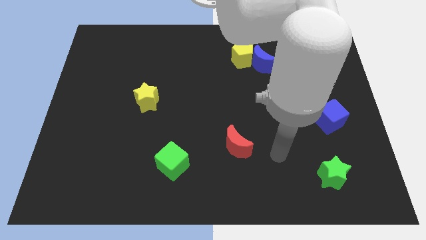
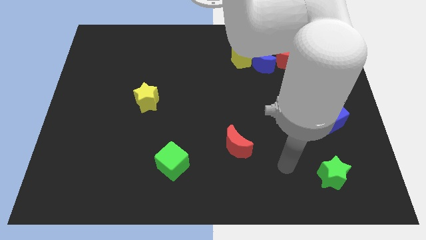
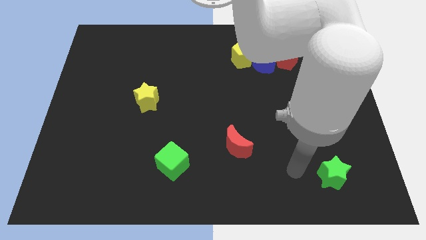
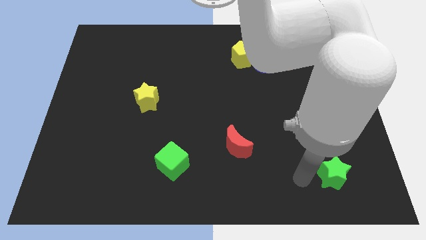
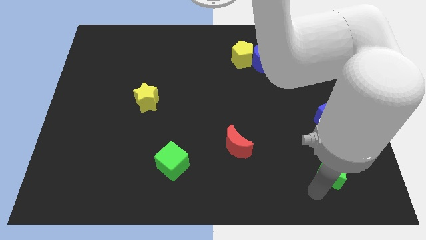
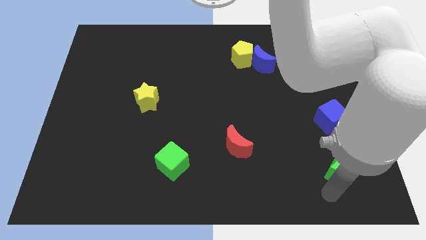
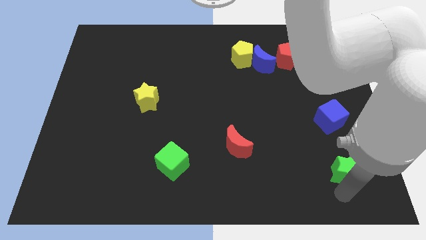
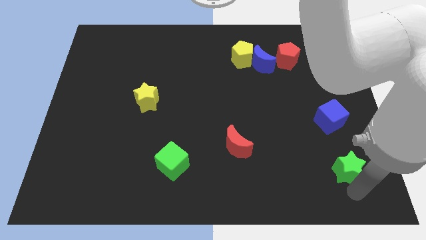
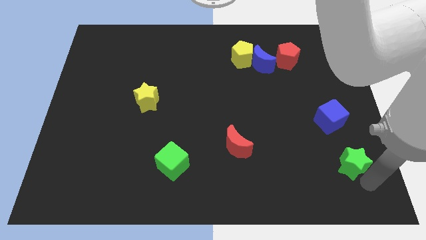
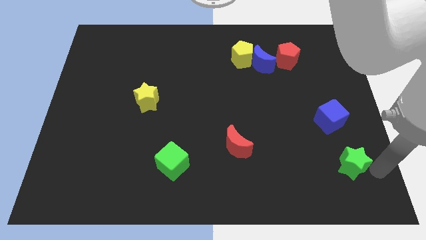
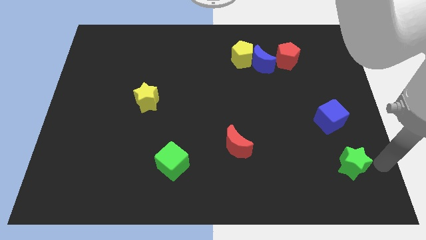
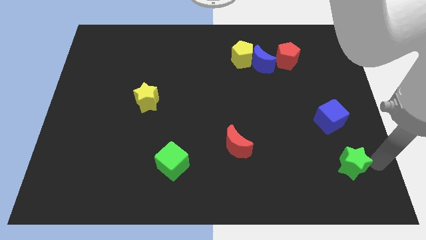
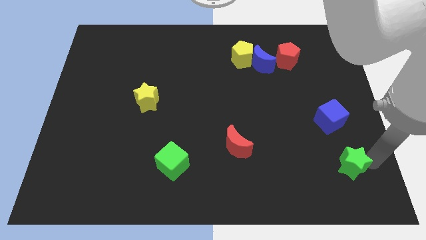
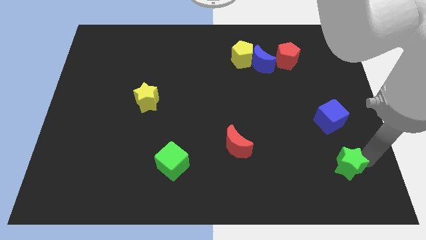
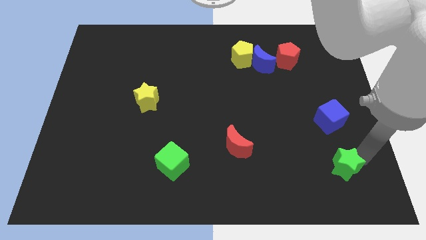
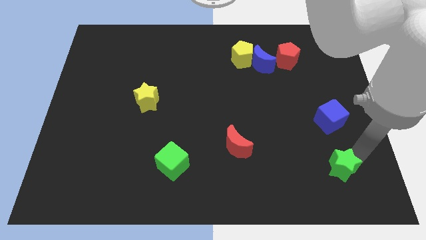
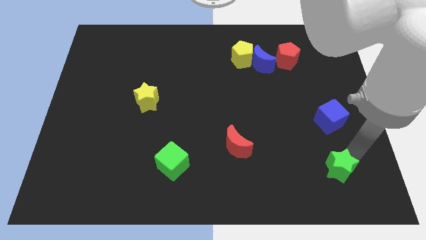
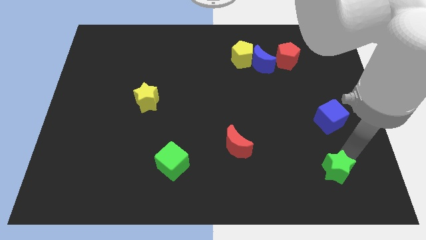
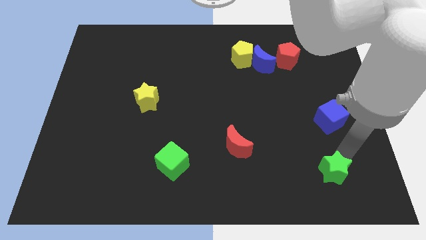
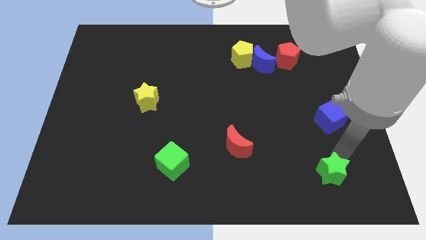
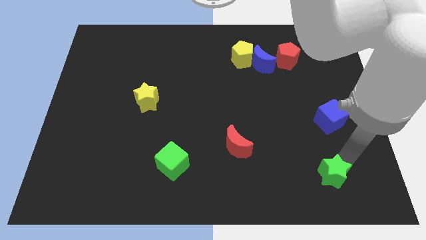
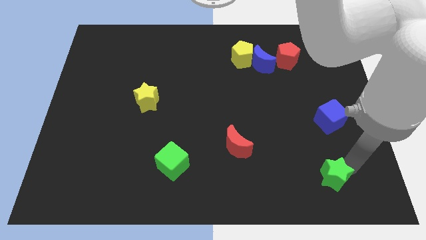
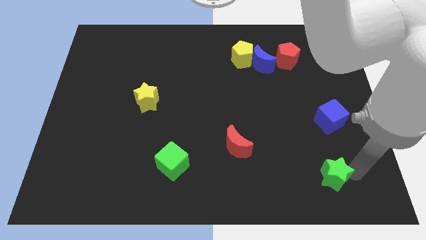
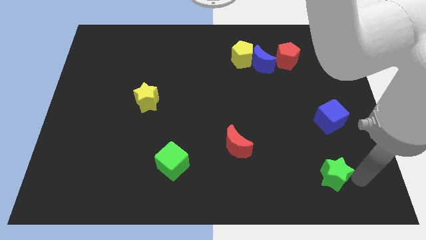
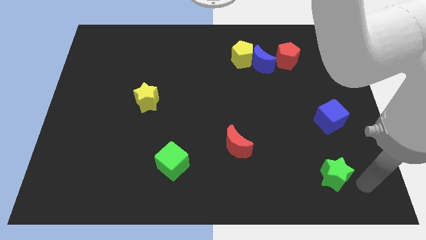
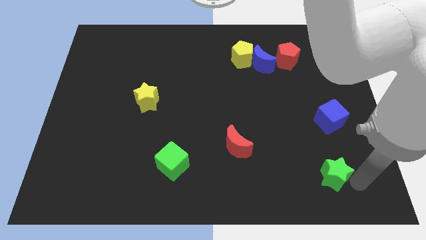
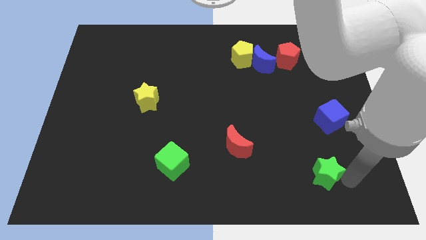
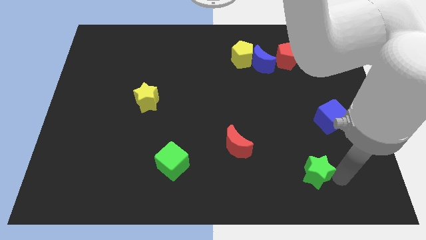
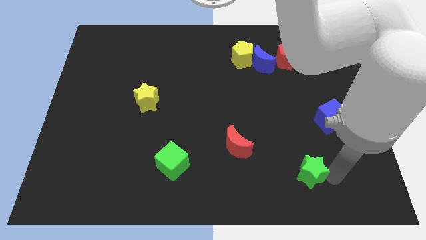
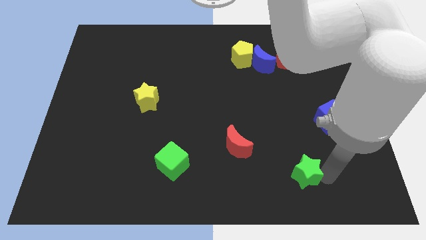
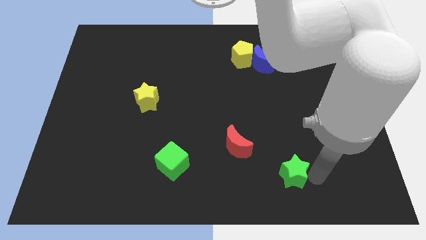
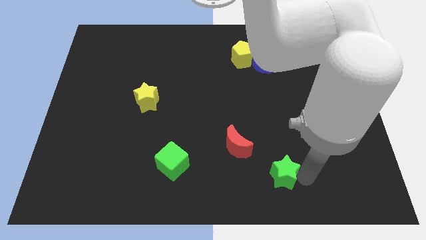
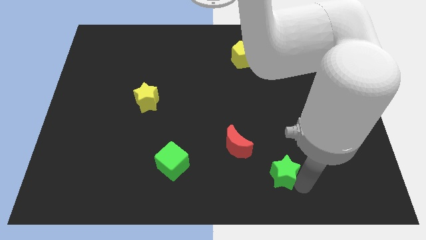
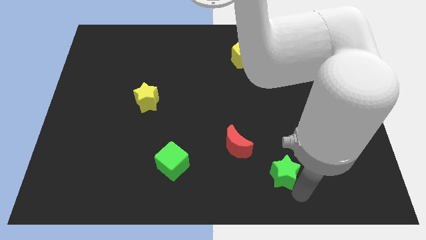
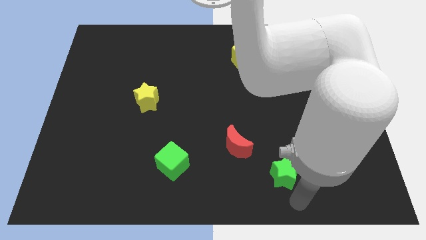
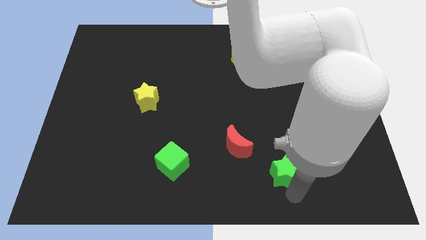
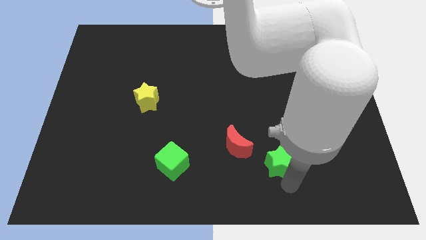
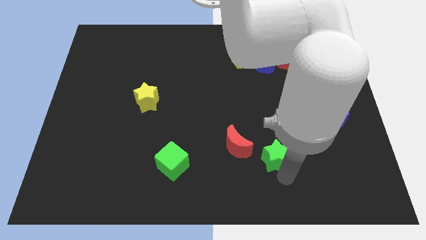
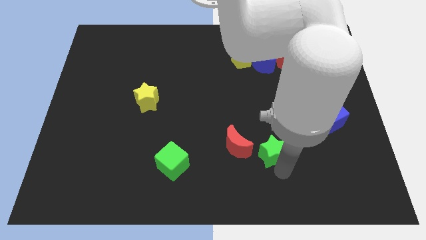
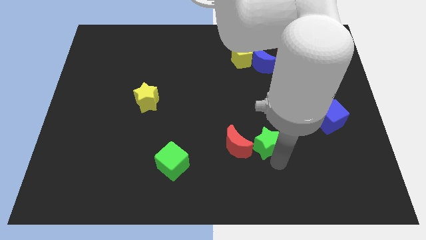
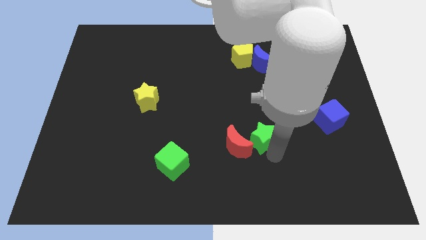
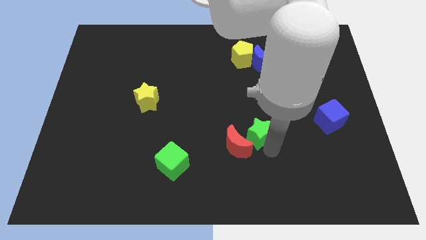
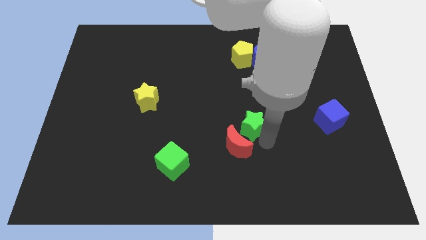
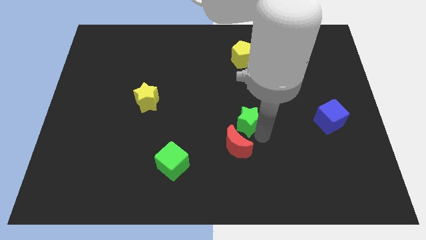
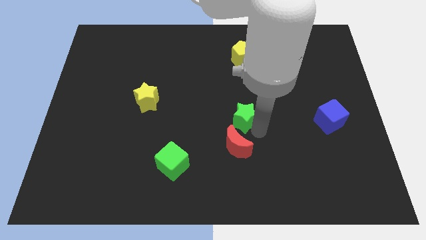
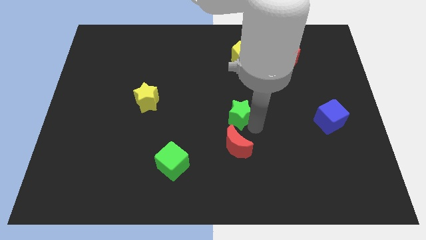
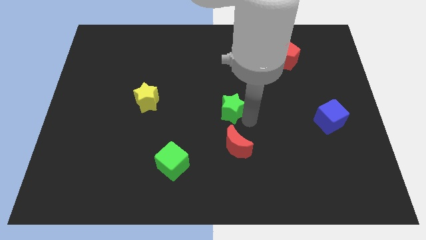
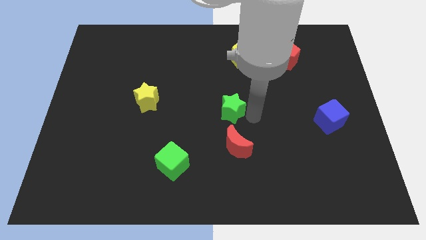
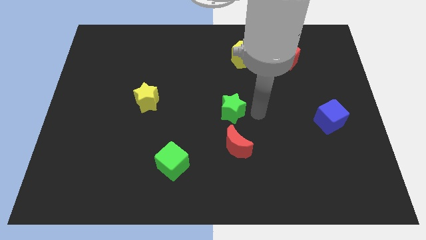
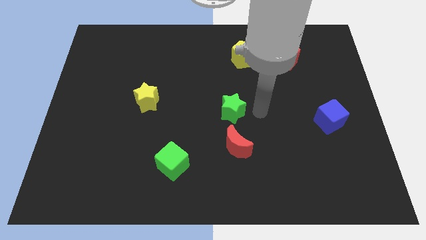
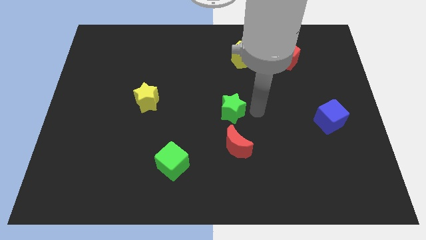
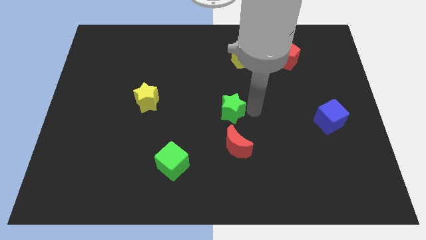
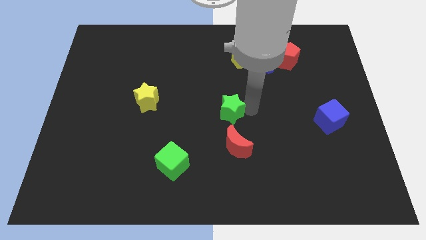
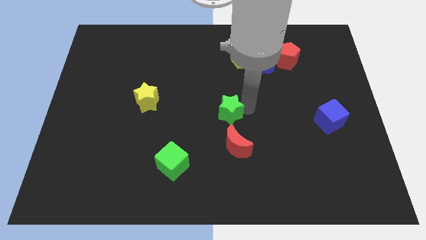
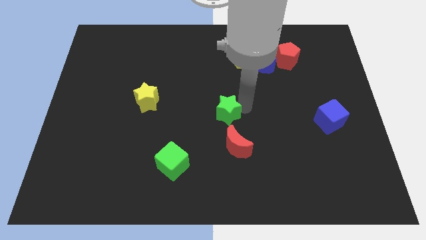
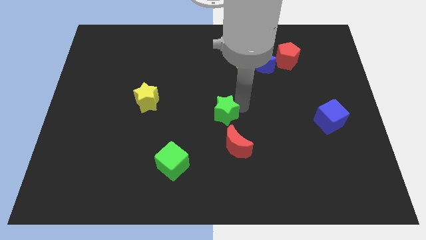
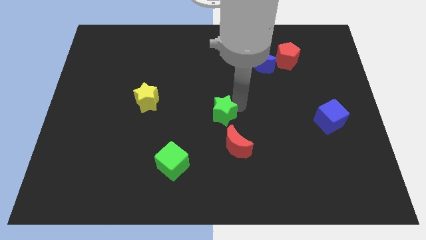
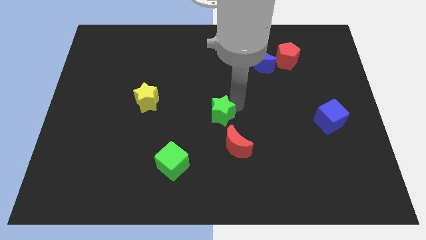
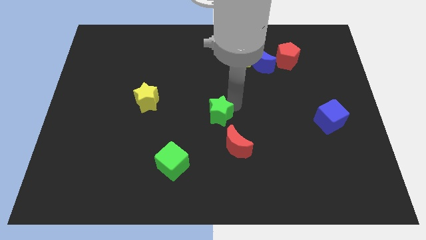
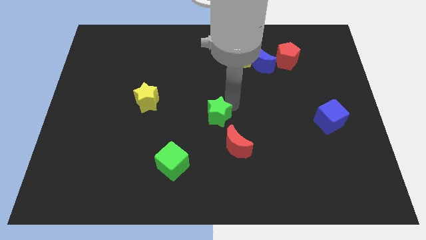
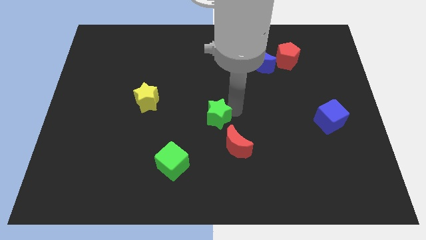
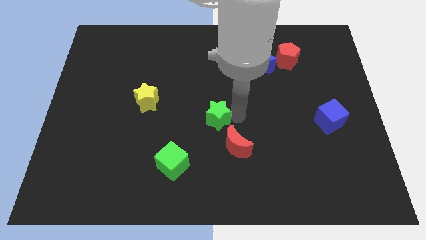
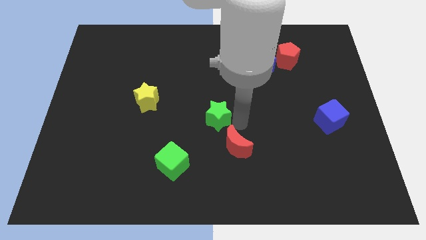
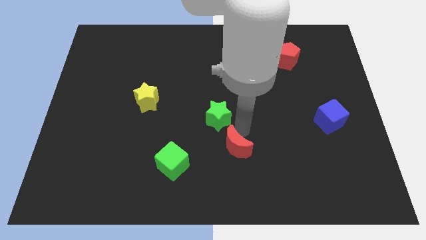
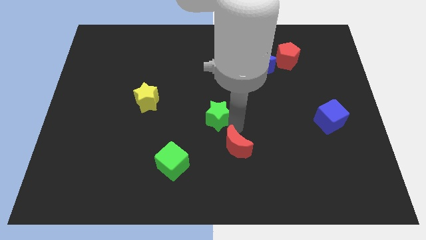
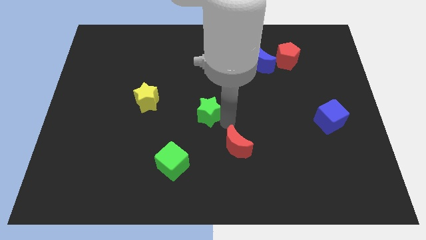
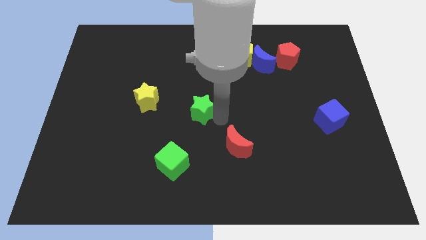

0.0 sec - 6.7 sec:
move the green star to the right side of the yellow star
